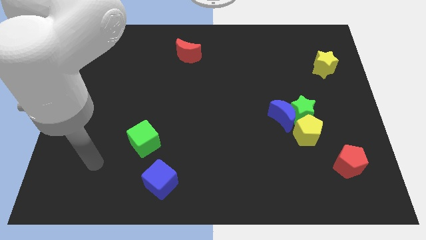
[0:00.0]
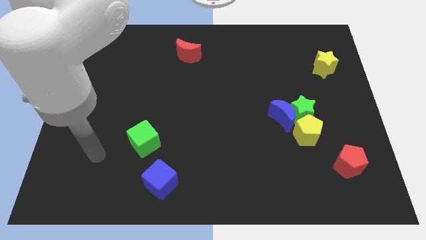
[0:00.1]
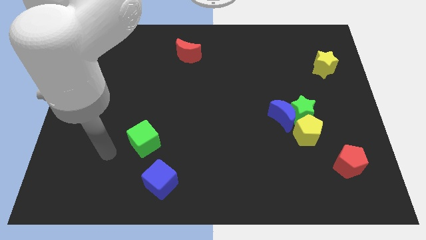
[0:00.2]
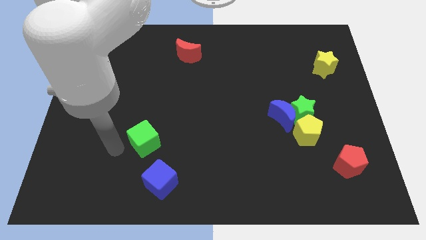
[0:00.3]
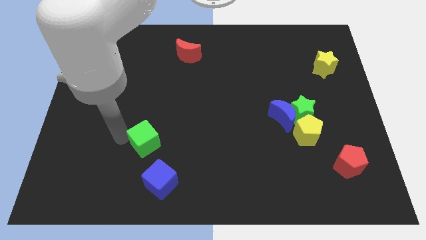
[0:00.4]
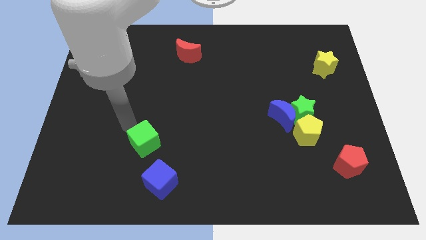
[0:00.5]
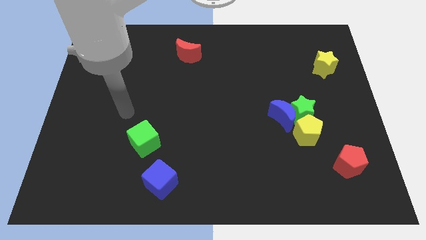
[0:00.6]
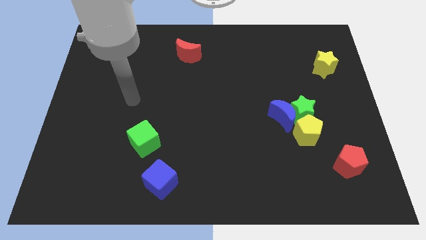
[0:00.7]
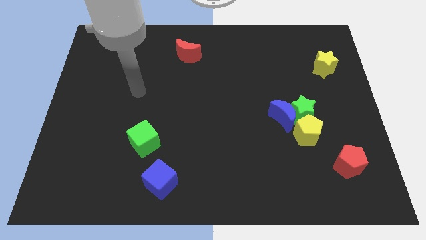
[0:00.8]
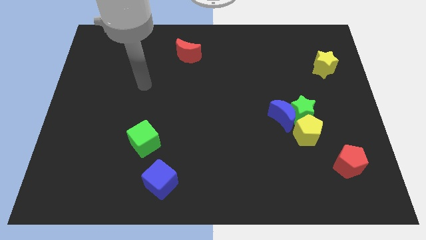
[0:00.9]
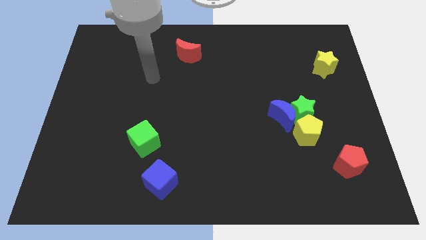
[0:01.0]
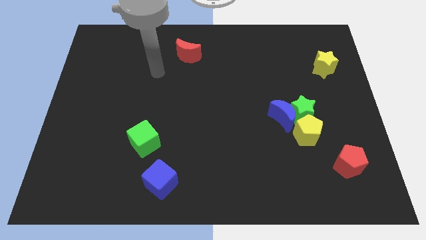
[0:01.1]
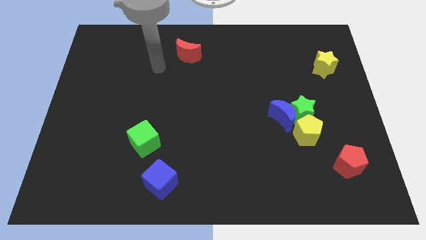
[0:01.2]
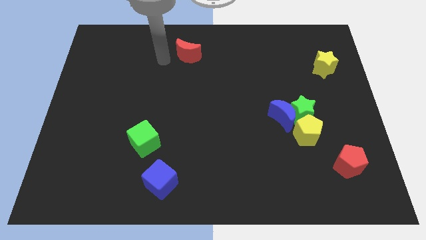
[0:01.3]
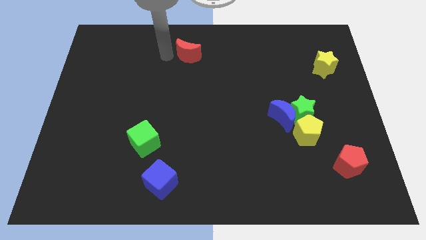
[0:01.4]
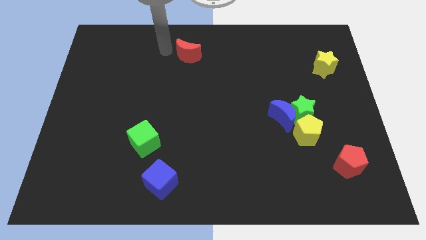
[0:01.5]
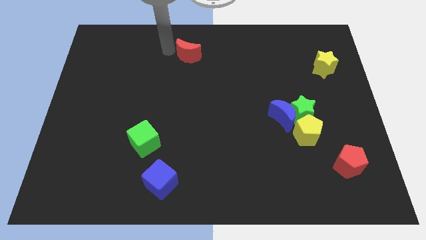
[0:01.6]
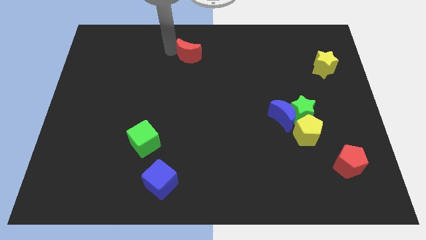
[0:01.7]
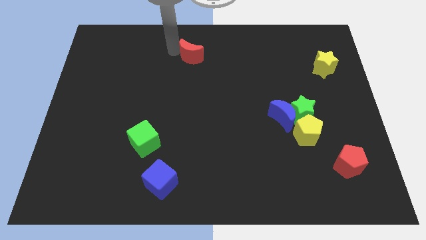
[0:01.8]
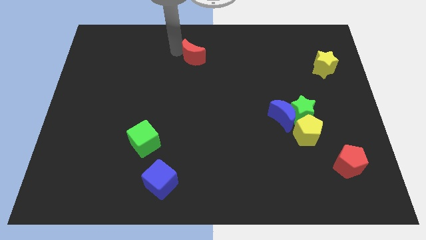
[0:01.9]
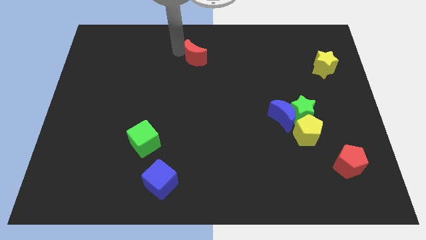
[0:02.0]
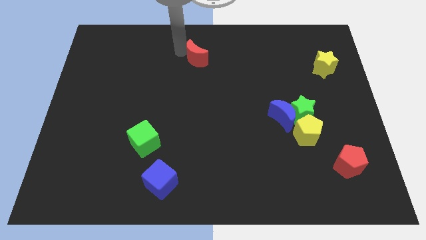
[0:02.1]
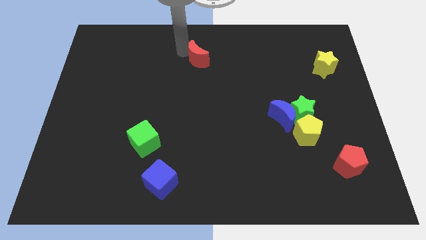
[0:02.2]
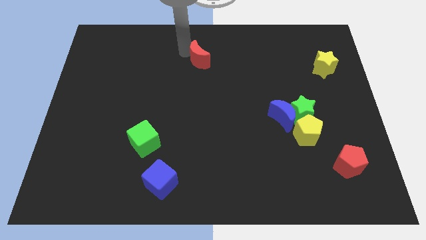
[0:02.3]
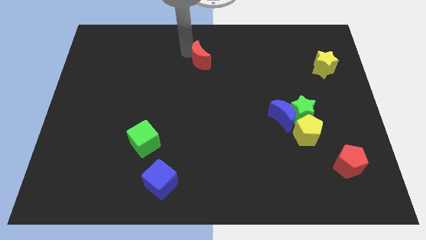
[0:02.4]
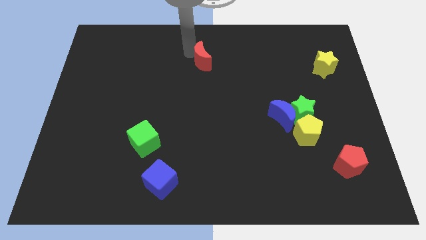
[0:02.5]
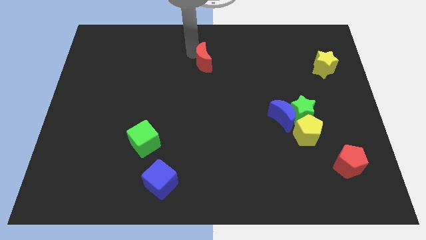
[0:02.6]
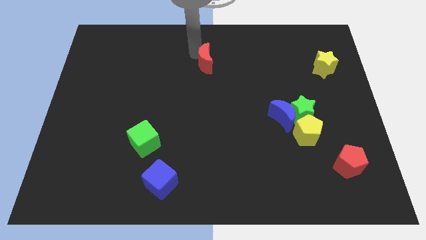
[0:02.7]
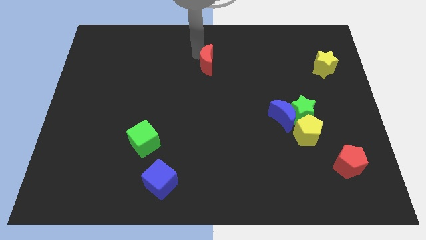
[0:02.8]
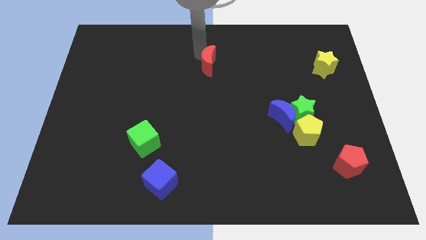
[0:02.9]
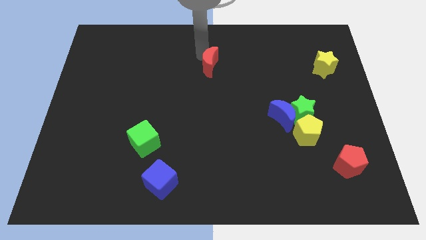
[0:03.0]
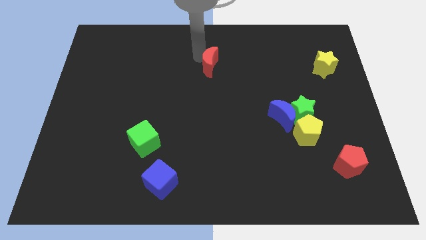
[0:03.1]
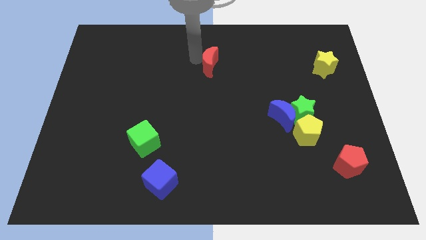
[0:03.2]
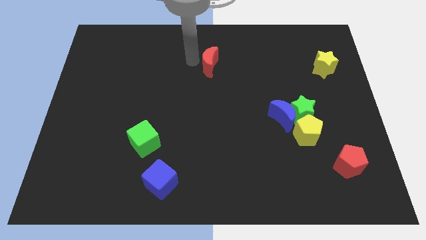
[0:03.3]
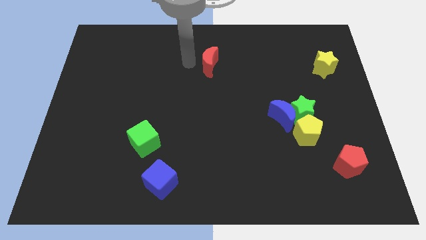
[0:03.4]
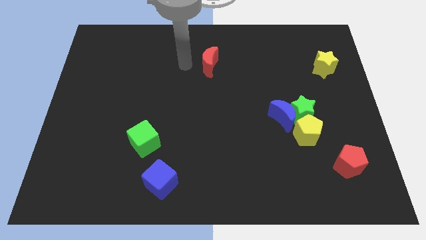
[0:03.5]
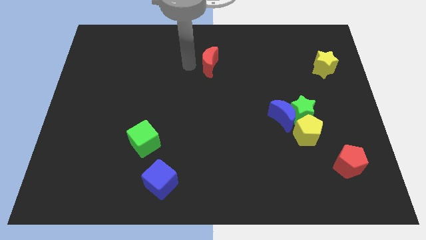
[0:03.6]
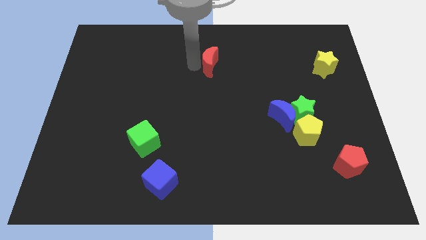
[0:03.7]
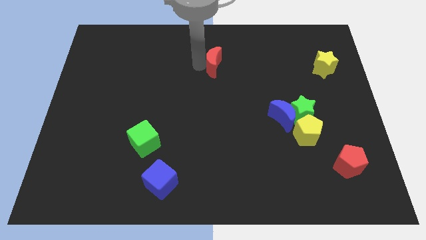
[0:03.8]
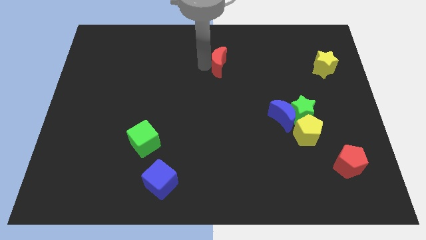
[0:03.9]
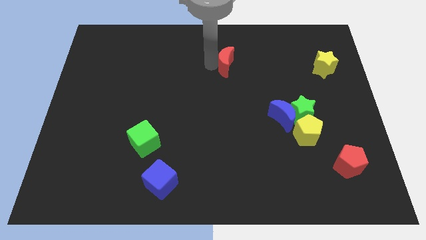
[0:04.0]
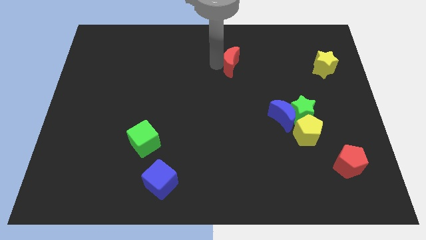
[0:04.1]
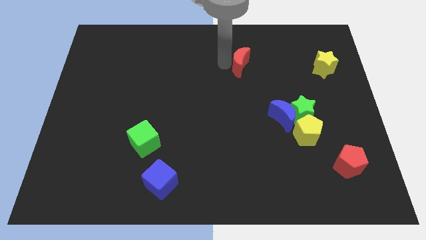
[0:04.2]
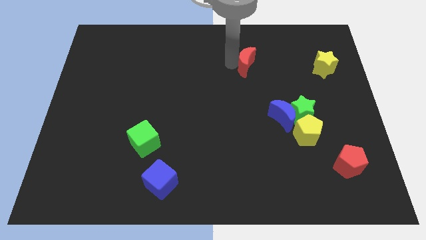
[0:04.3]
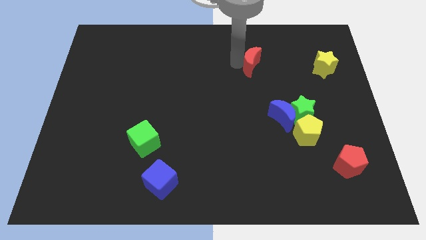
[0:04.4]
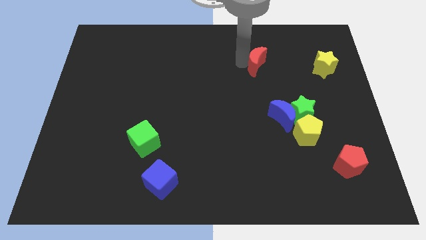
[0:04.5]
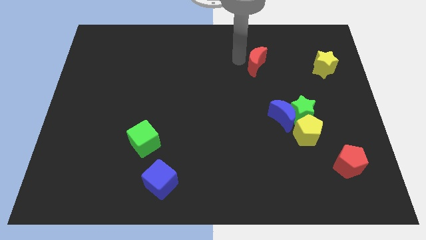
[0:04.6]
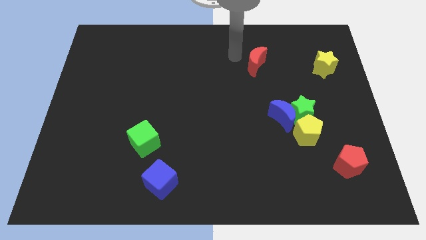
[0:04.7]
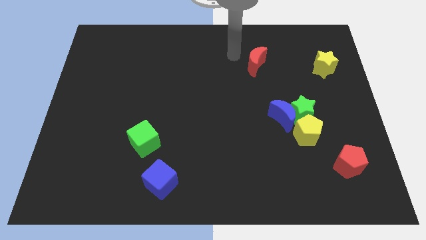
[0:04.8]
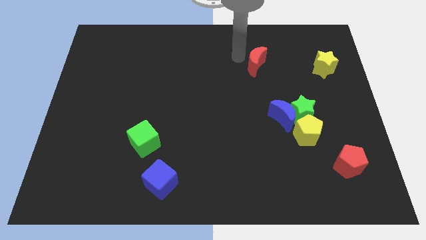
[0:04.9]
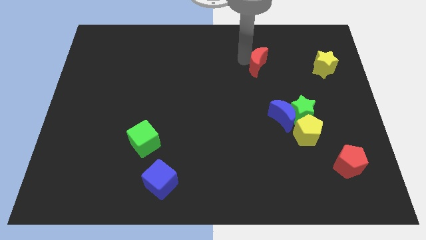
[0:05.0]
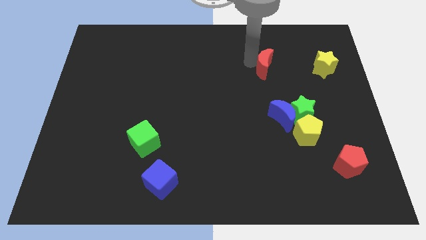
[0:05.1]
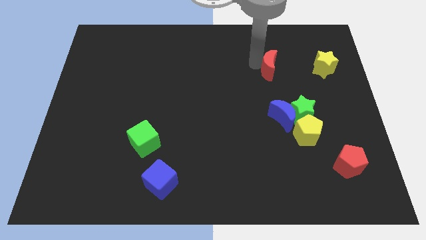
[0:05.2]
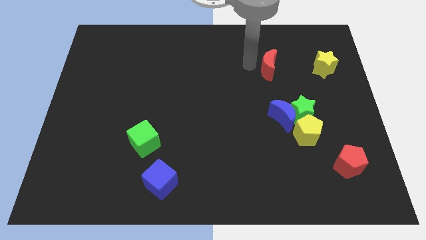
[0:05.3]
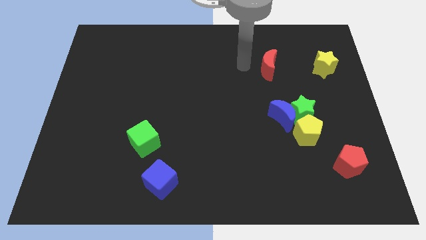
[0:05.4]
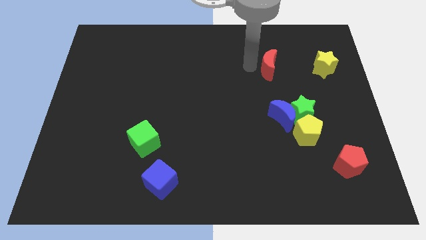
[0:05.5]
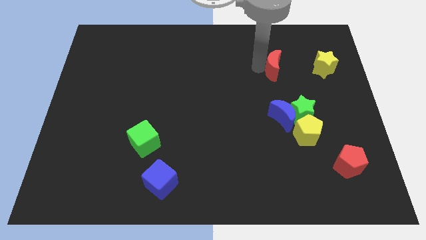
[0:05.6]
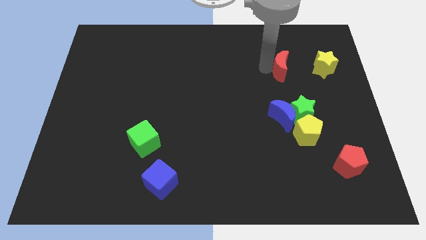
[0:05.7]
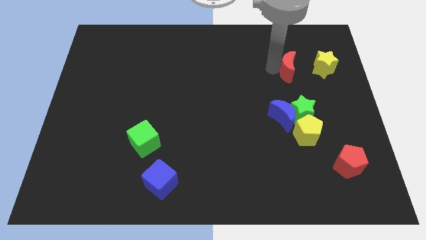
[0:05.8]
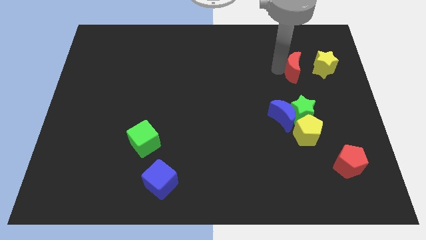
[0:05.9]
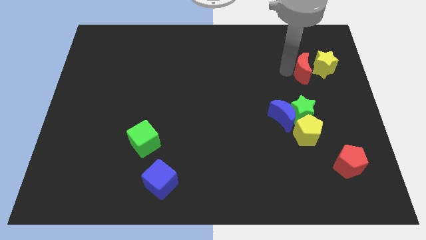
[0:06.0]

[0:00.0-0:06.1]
push the red moon next to the yellow star
